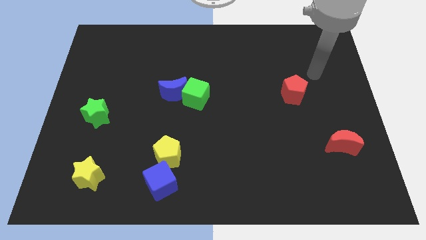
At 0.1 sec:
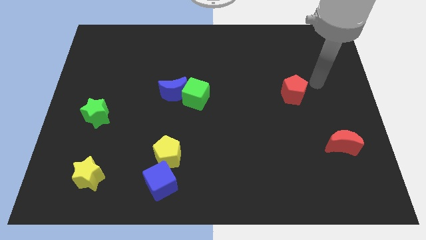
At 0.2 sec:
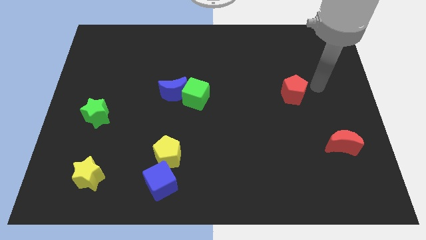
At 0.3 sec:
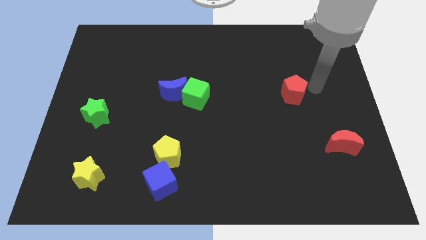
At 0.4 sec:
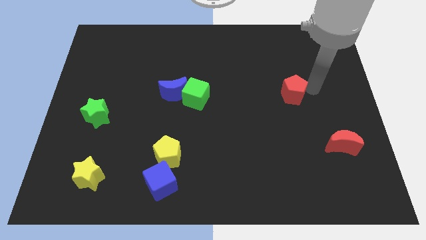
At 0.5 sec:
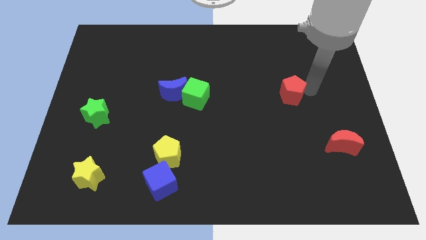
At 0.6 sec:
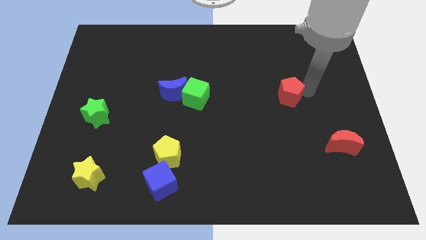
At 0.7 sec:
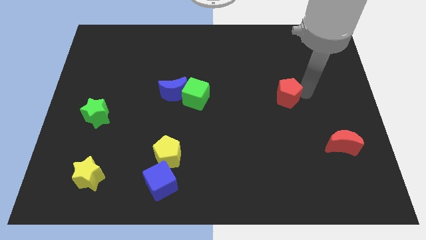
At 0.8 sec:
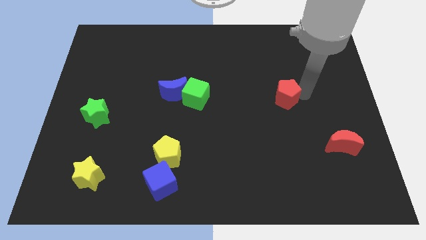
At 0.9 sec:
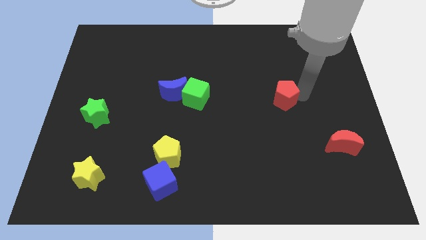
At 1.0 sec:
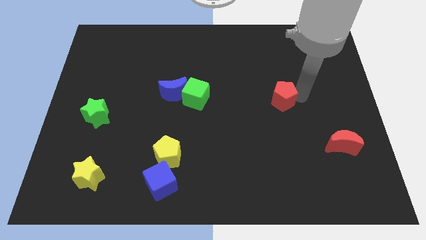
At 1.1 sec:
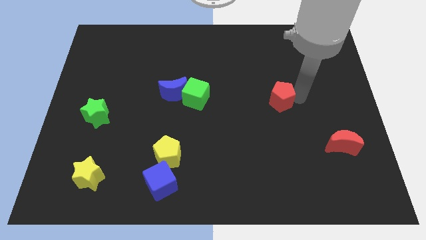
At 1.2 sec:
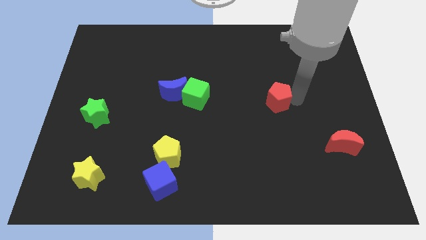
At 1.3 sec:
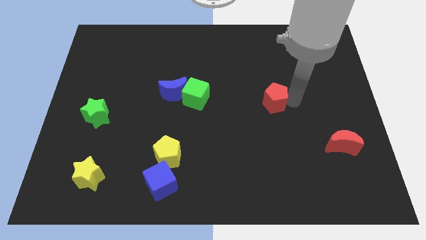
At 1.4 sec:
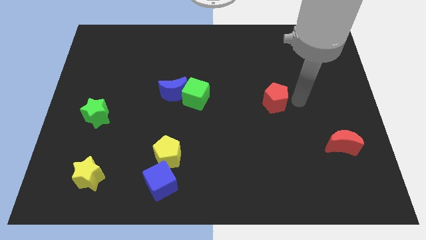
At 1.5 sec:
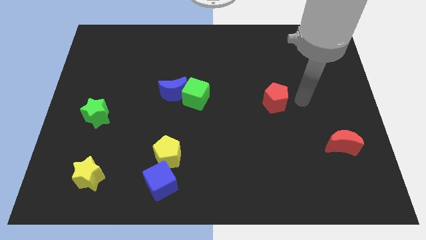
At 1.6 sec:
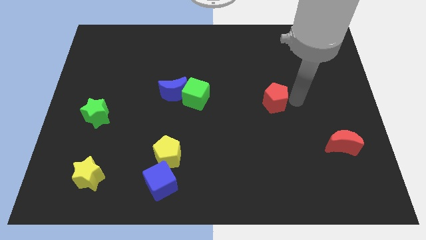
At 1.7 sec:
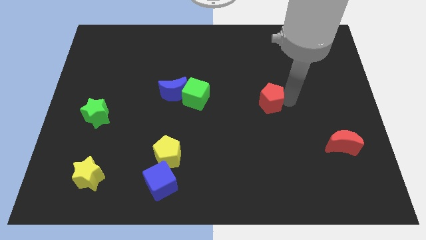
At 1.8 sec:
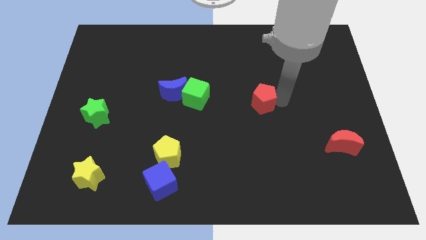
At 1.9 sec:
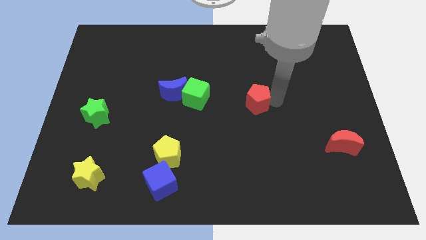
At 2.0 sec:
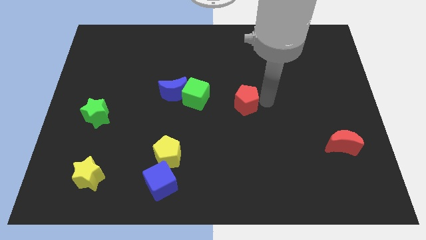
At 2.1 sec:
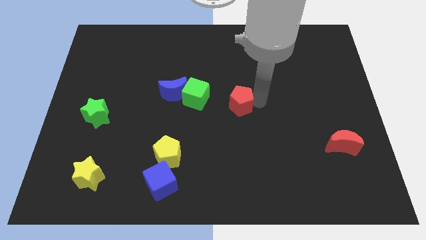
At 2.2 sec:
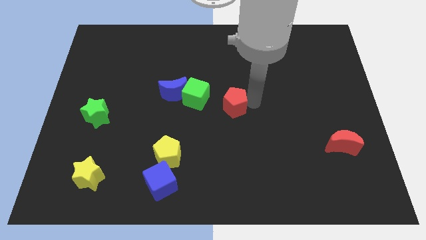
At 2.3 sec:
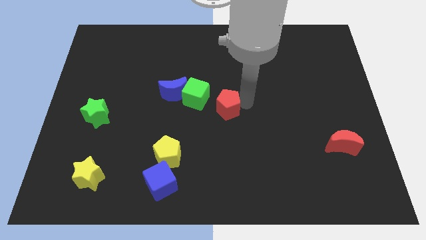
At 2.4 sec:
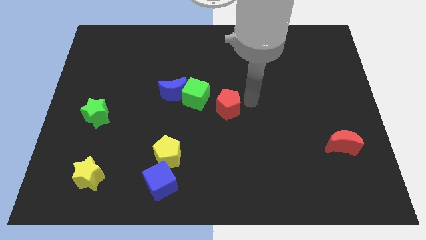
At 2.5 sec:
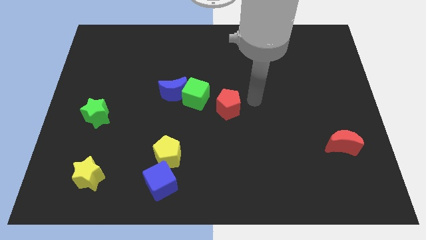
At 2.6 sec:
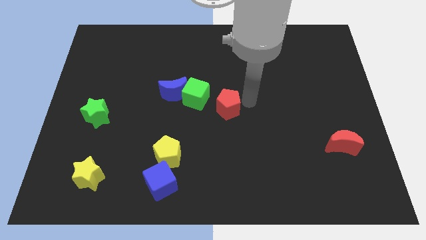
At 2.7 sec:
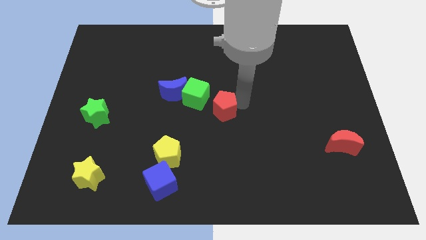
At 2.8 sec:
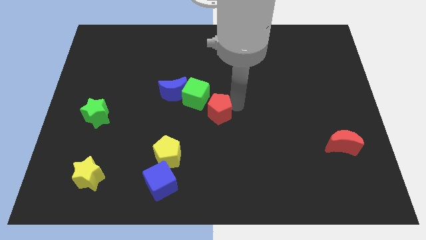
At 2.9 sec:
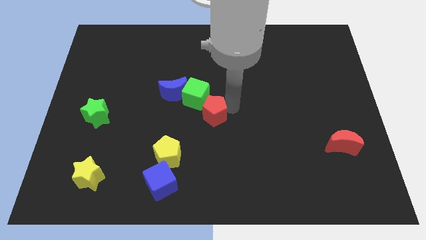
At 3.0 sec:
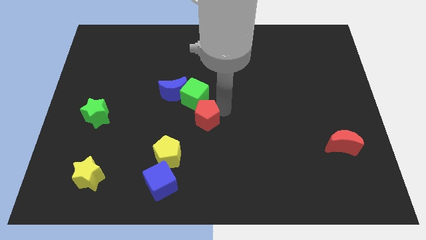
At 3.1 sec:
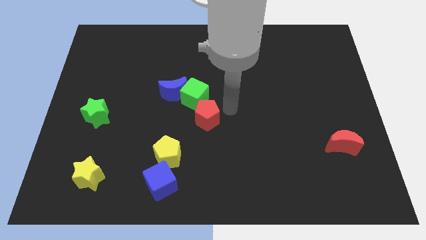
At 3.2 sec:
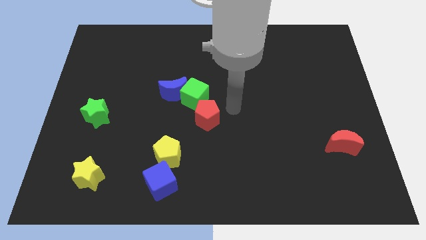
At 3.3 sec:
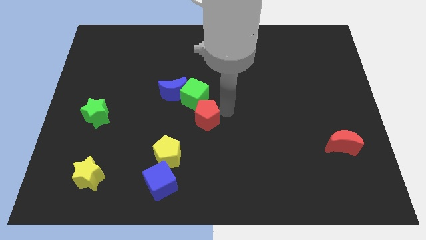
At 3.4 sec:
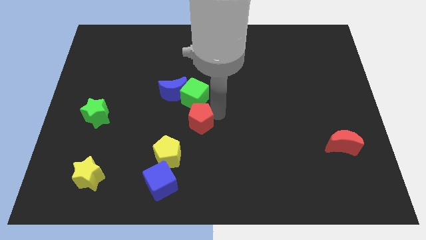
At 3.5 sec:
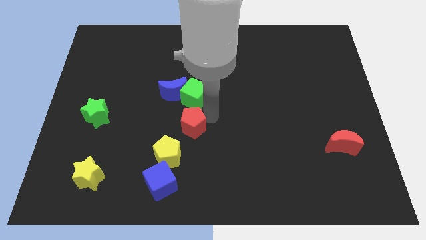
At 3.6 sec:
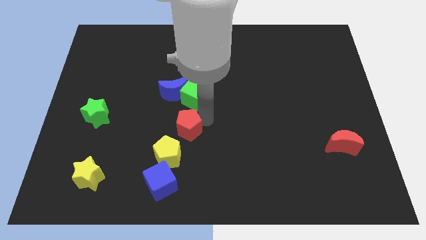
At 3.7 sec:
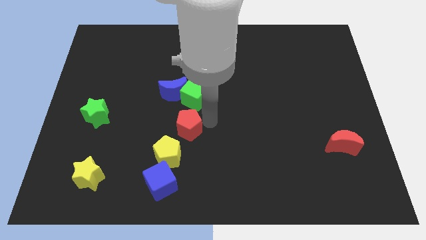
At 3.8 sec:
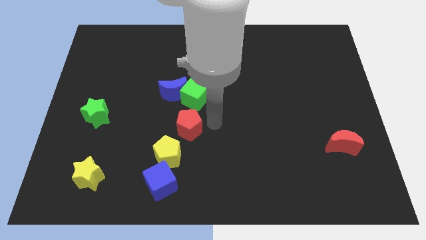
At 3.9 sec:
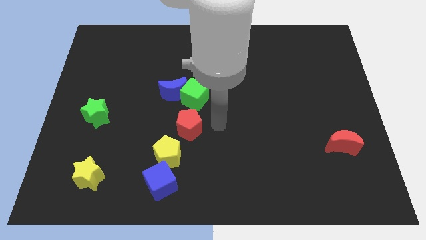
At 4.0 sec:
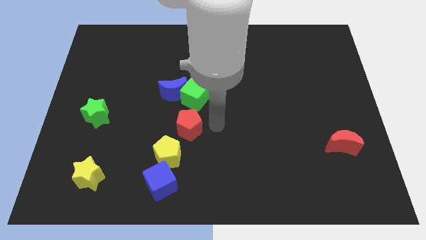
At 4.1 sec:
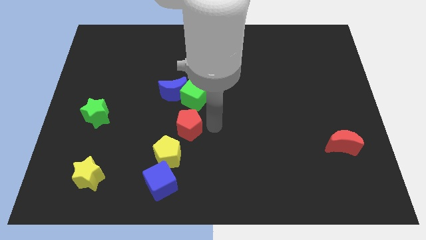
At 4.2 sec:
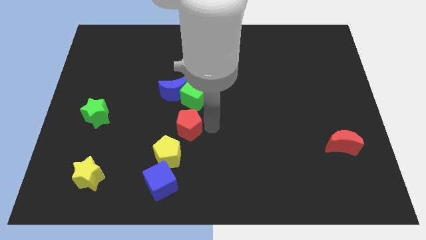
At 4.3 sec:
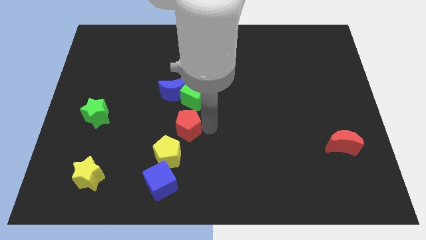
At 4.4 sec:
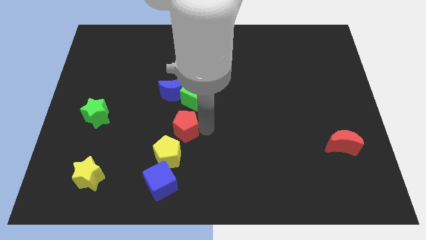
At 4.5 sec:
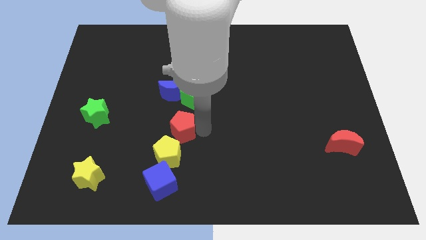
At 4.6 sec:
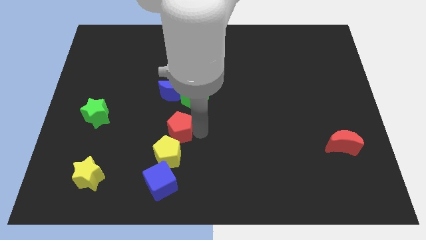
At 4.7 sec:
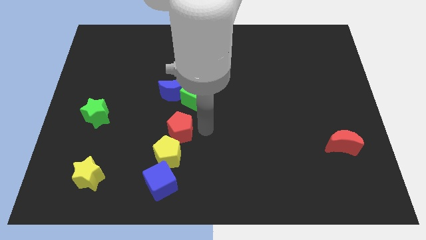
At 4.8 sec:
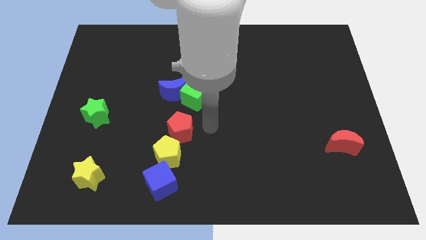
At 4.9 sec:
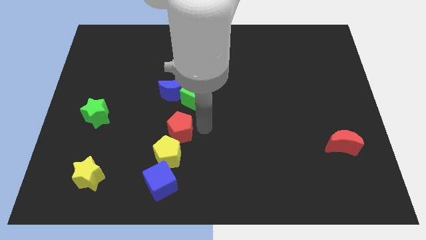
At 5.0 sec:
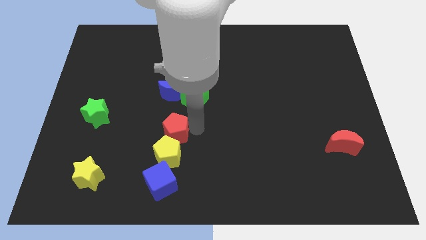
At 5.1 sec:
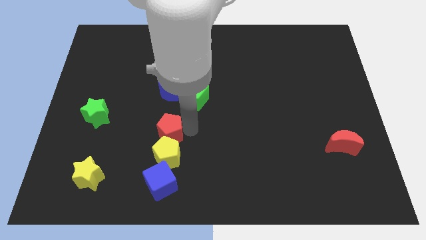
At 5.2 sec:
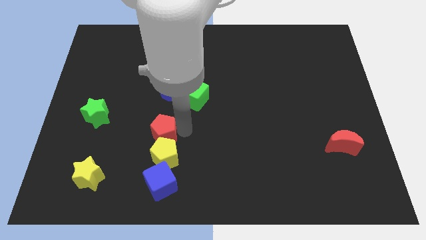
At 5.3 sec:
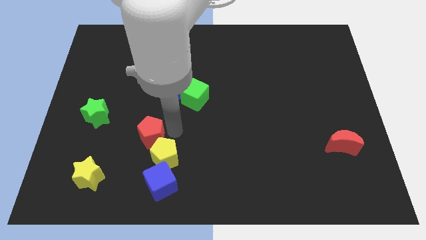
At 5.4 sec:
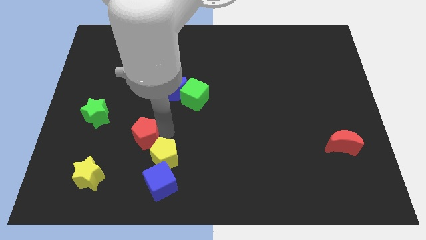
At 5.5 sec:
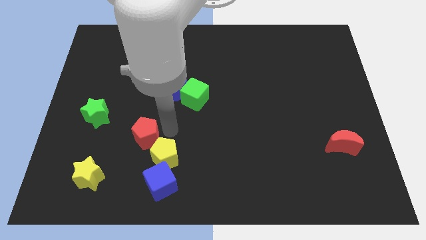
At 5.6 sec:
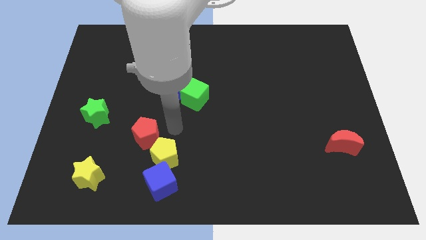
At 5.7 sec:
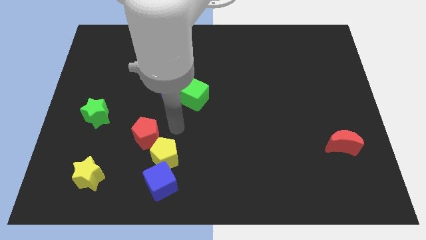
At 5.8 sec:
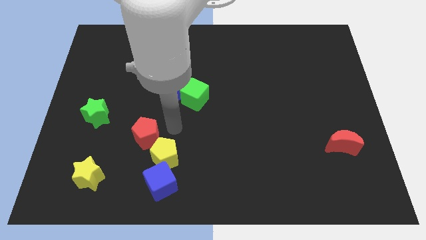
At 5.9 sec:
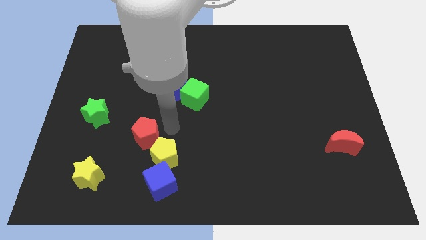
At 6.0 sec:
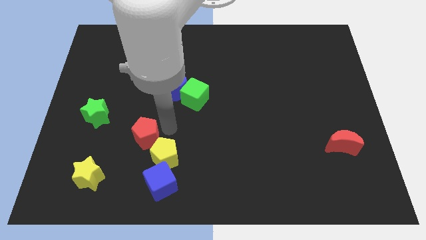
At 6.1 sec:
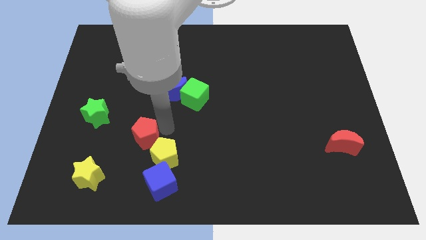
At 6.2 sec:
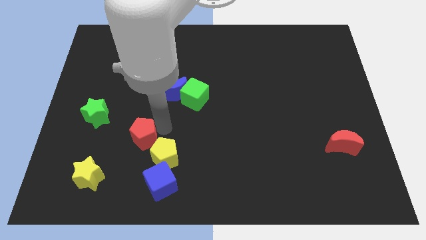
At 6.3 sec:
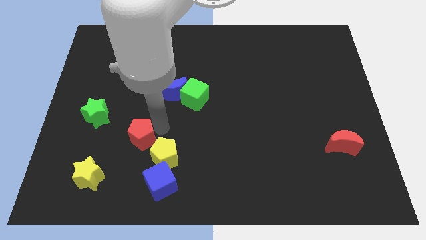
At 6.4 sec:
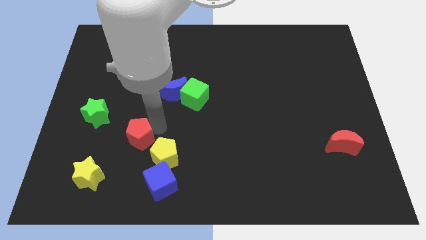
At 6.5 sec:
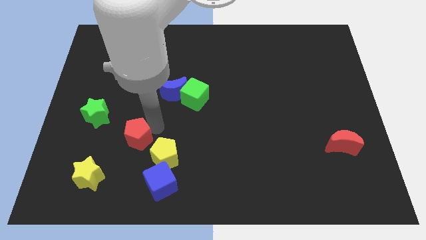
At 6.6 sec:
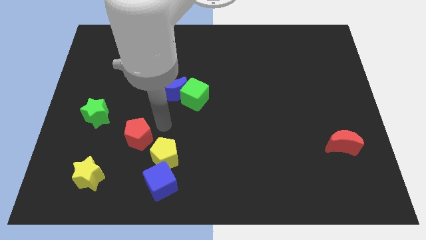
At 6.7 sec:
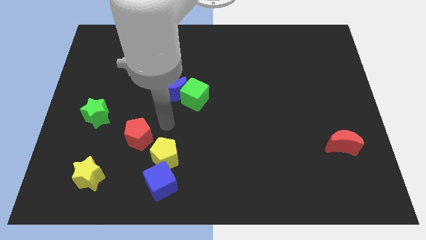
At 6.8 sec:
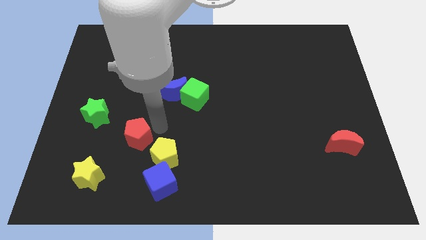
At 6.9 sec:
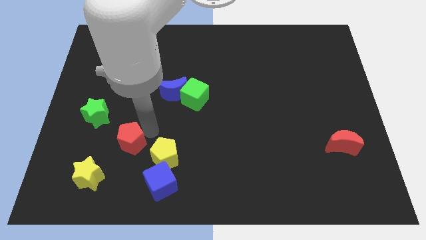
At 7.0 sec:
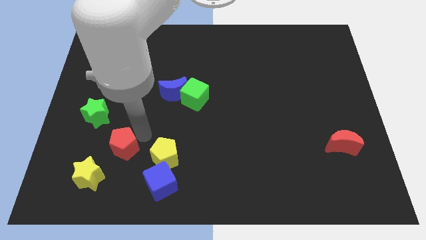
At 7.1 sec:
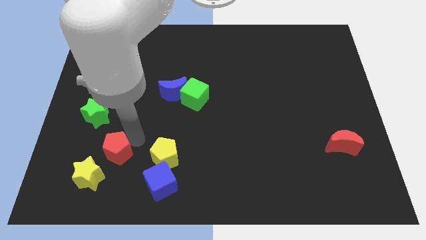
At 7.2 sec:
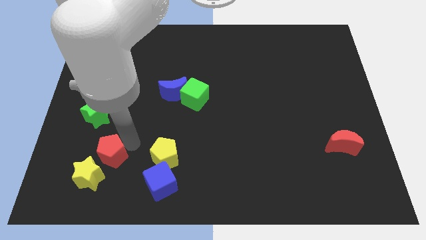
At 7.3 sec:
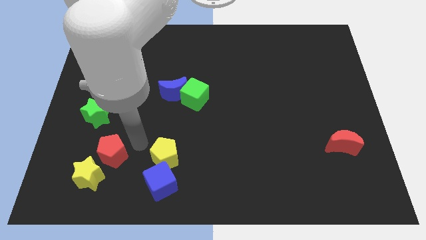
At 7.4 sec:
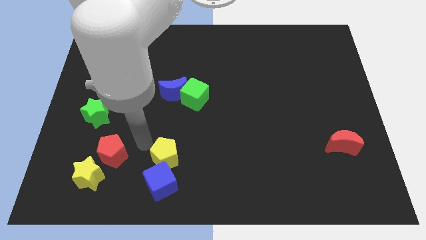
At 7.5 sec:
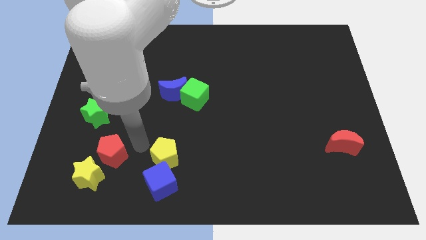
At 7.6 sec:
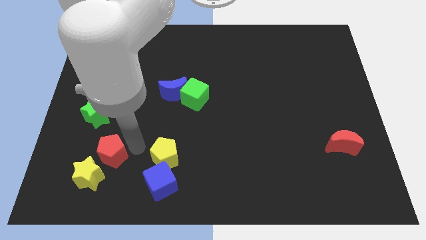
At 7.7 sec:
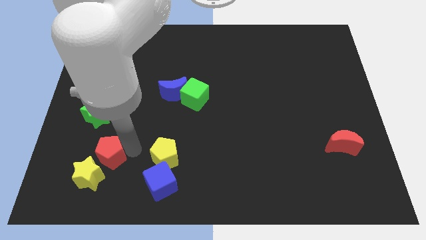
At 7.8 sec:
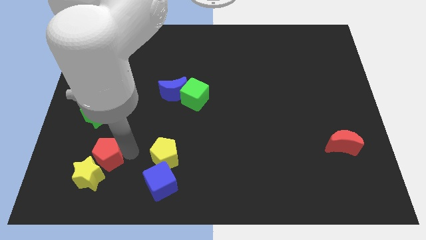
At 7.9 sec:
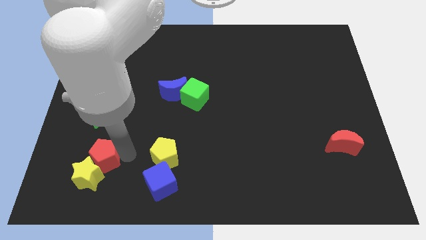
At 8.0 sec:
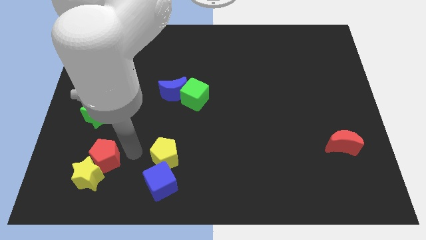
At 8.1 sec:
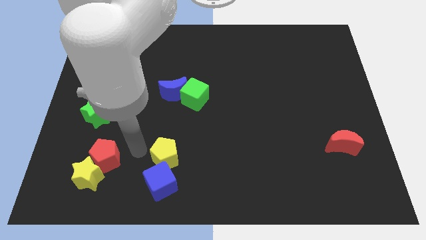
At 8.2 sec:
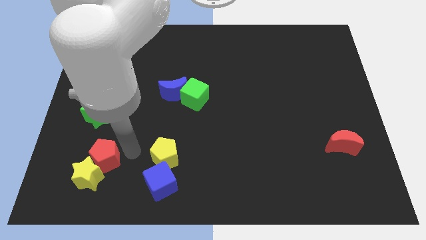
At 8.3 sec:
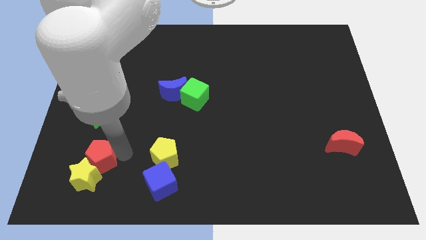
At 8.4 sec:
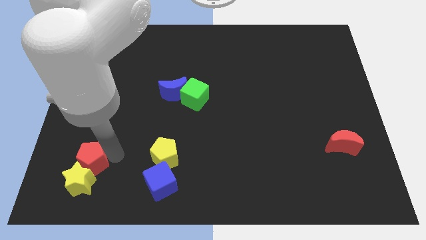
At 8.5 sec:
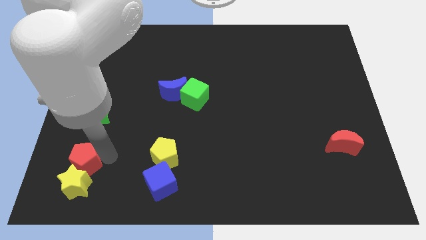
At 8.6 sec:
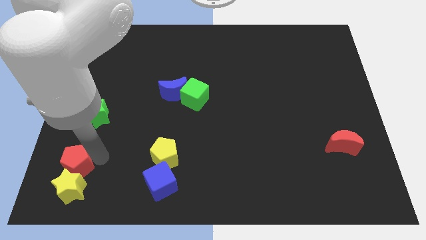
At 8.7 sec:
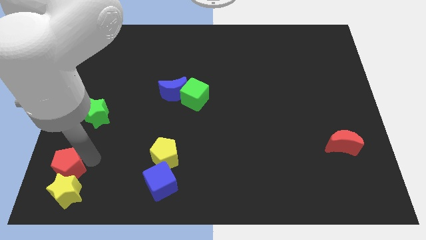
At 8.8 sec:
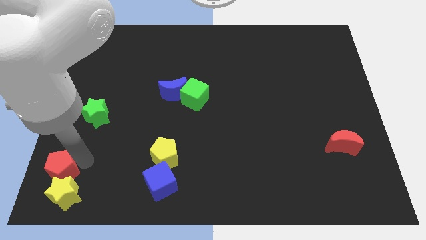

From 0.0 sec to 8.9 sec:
slide the red pentagon to the bottom left corner
